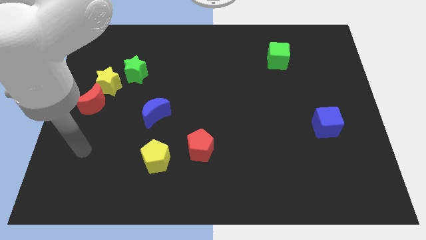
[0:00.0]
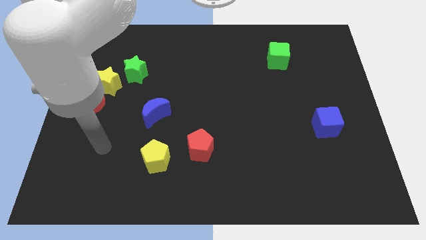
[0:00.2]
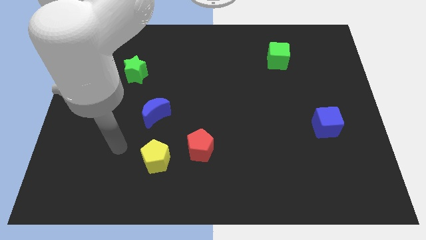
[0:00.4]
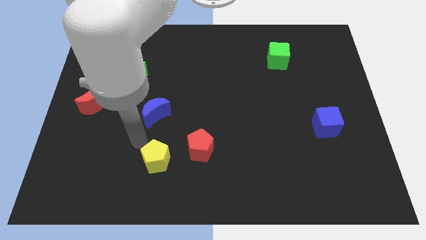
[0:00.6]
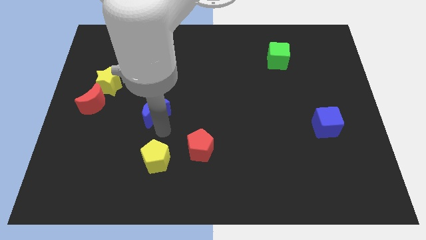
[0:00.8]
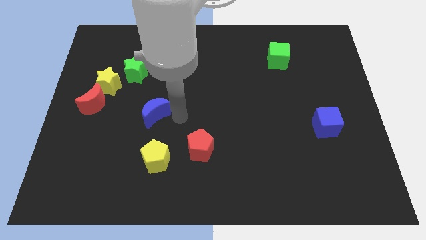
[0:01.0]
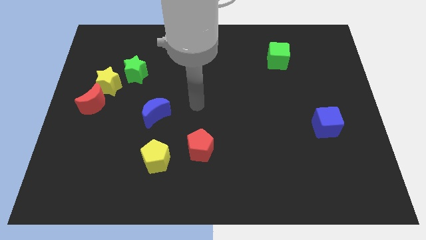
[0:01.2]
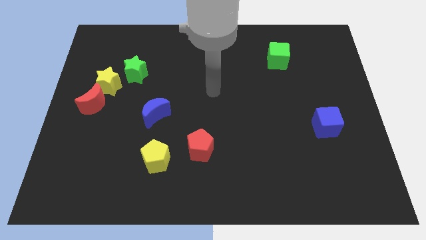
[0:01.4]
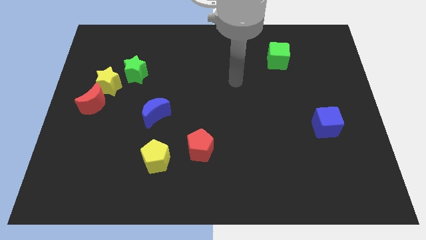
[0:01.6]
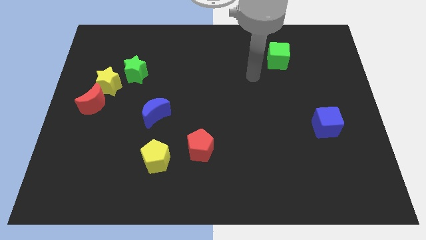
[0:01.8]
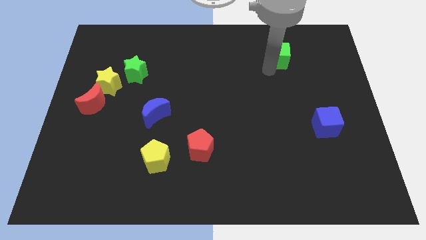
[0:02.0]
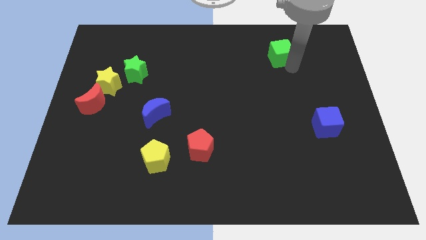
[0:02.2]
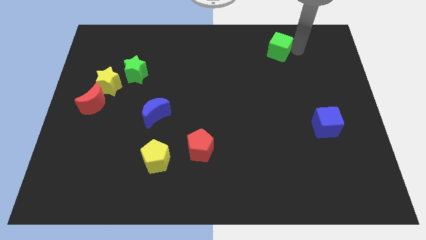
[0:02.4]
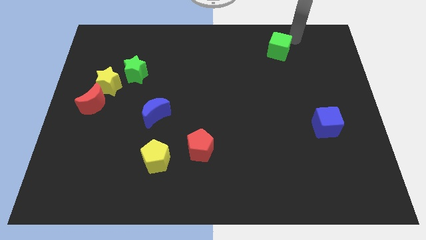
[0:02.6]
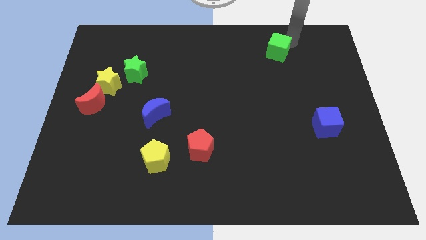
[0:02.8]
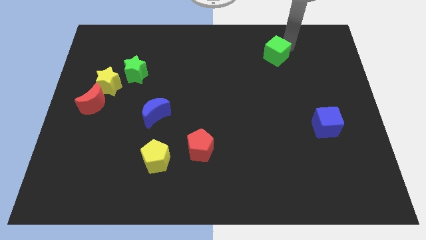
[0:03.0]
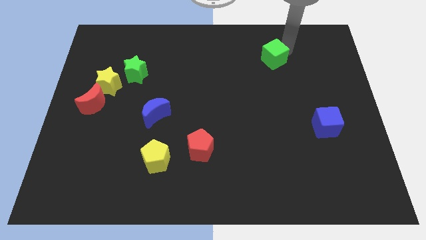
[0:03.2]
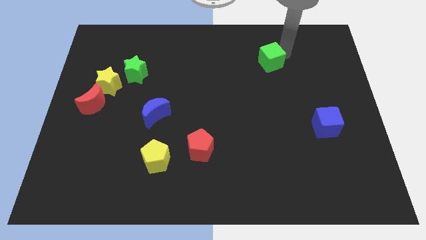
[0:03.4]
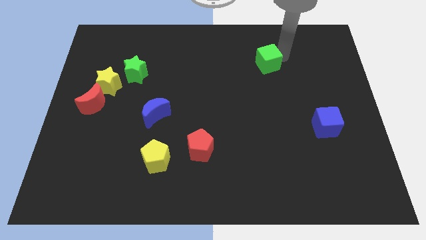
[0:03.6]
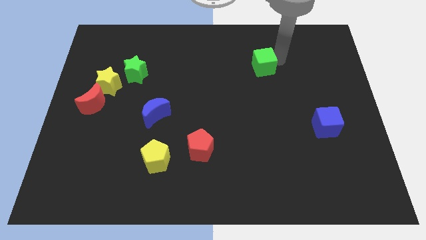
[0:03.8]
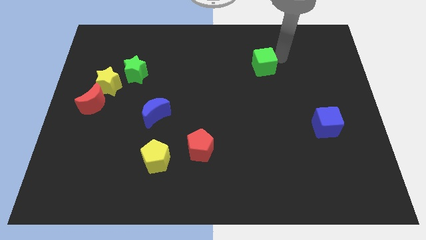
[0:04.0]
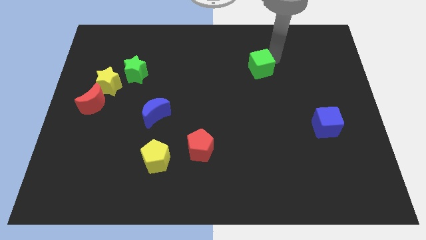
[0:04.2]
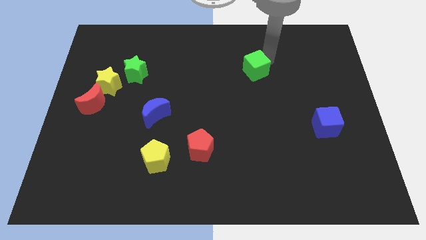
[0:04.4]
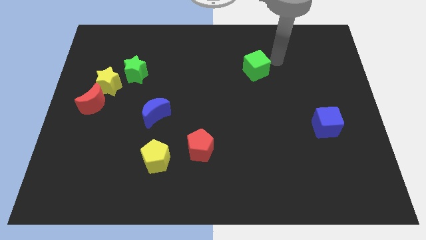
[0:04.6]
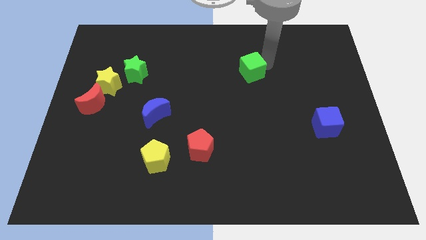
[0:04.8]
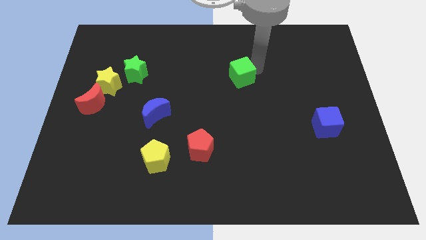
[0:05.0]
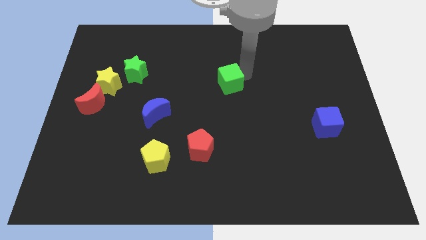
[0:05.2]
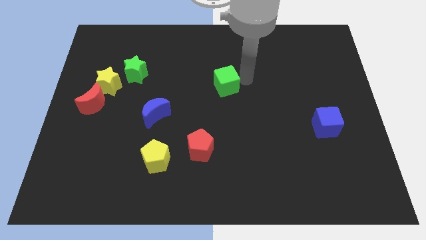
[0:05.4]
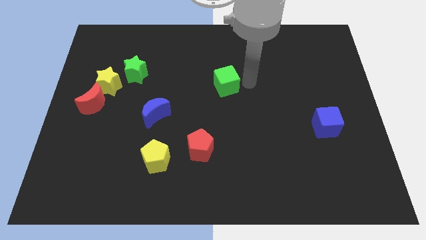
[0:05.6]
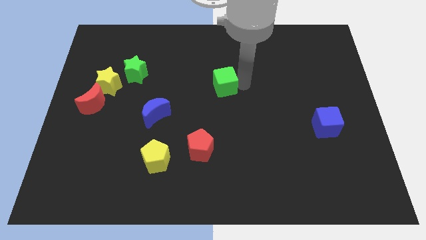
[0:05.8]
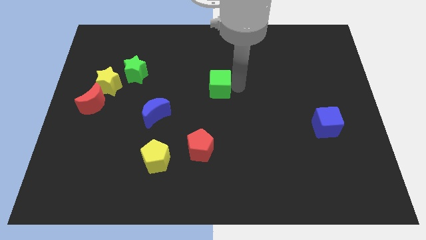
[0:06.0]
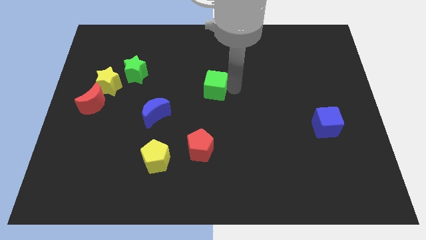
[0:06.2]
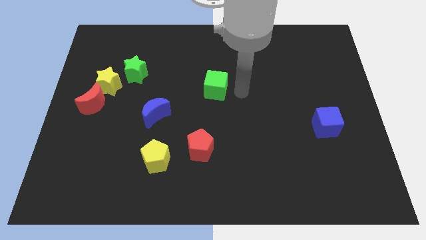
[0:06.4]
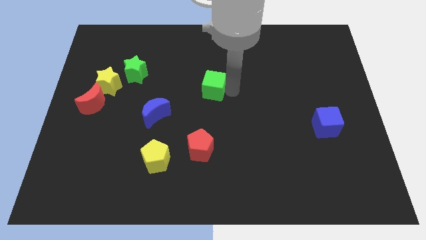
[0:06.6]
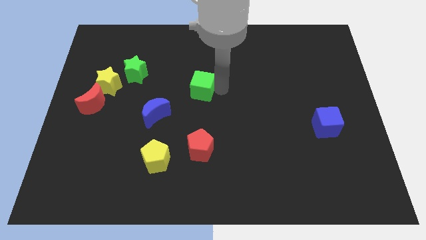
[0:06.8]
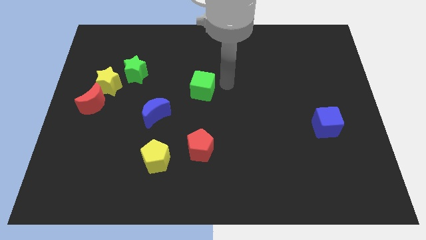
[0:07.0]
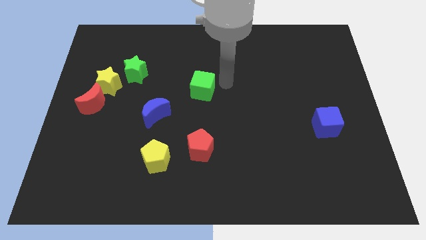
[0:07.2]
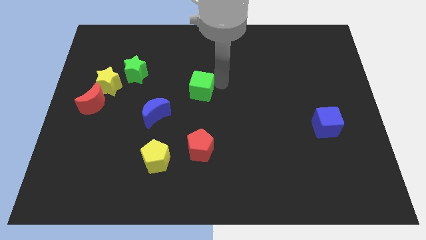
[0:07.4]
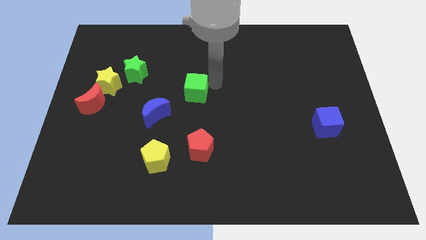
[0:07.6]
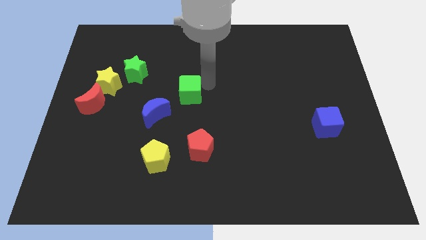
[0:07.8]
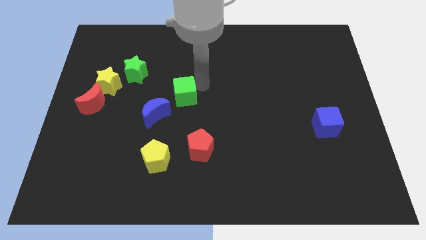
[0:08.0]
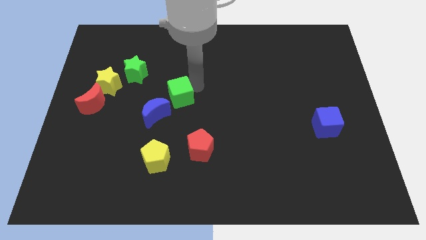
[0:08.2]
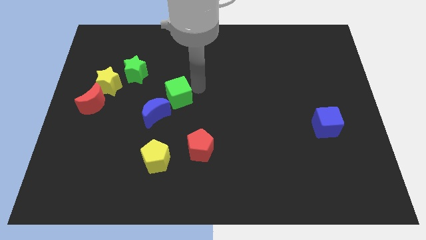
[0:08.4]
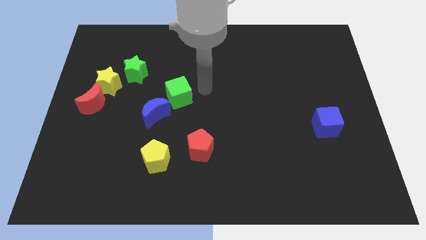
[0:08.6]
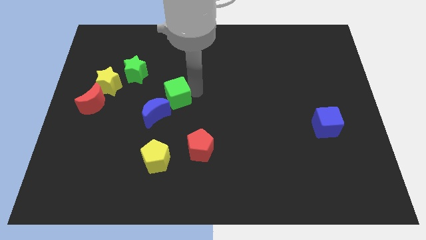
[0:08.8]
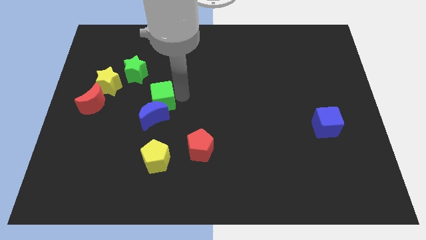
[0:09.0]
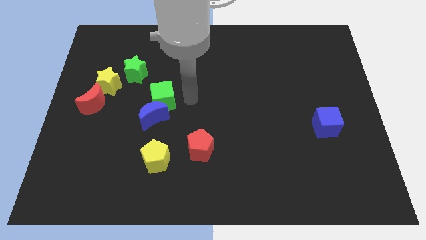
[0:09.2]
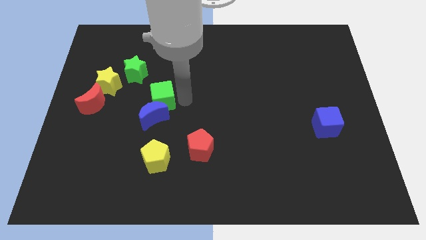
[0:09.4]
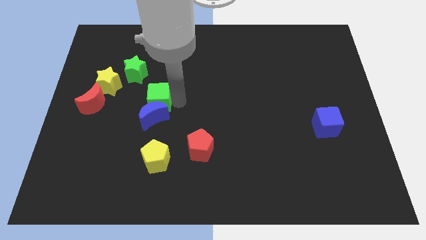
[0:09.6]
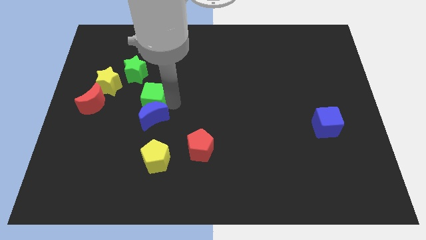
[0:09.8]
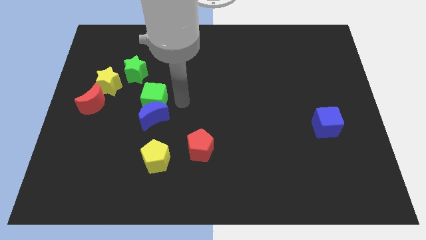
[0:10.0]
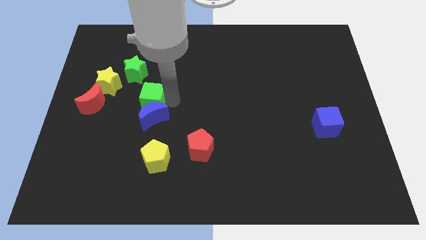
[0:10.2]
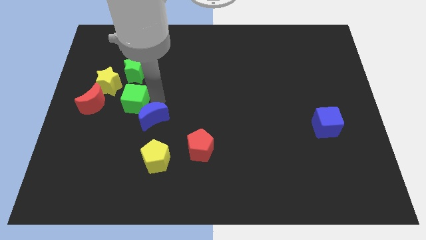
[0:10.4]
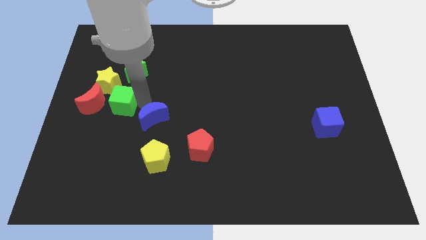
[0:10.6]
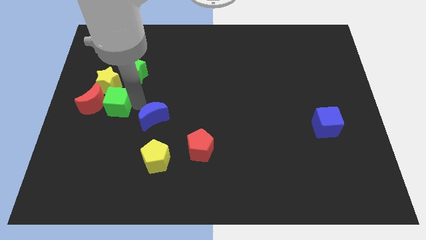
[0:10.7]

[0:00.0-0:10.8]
put the green cube next to the red moon

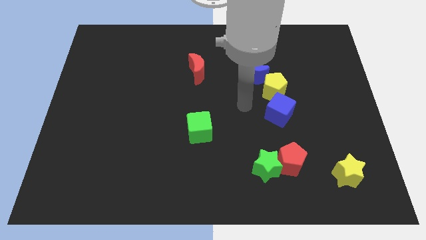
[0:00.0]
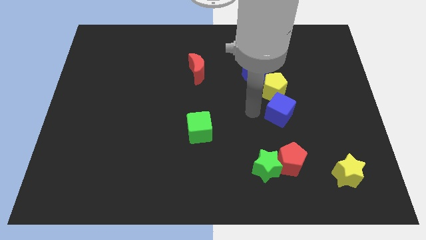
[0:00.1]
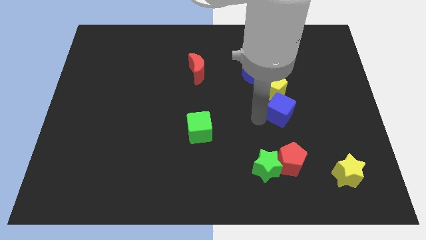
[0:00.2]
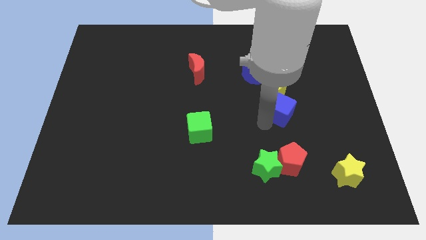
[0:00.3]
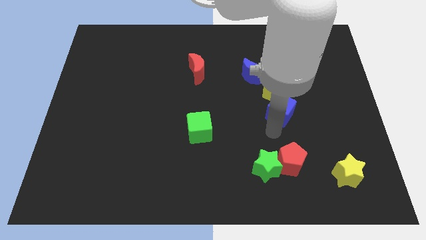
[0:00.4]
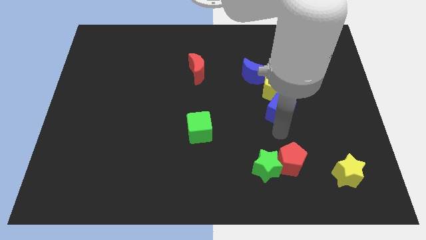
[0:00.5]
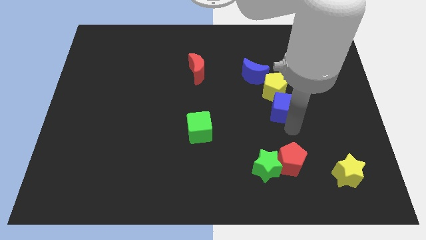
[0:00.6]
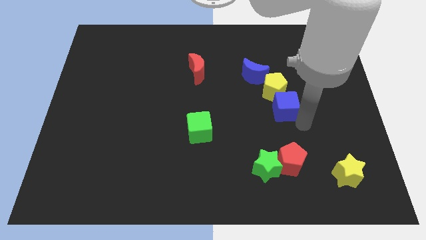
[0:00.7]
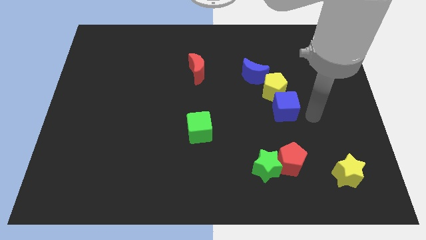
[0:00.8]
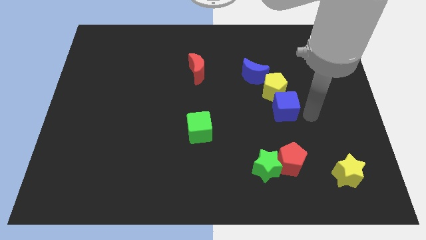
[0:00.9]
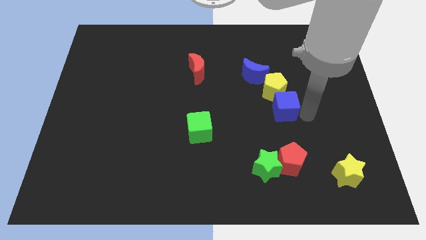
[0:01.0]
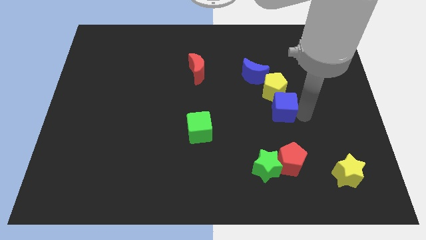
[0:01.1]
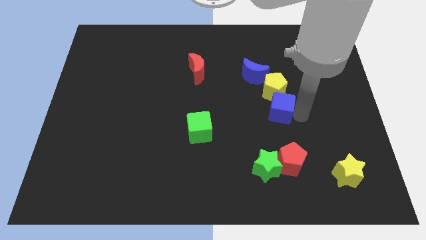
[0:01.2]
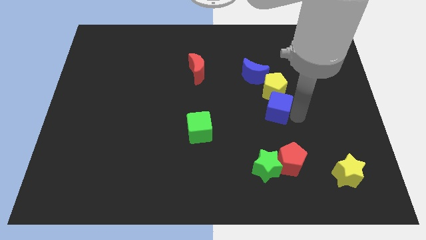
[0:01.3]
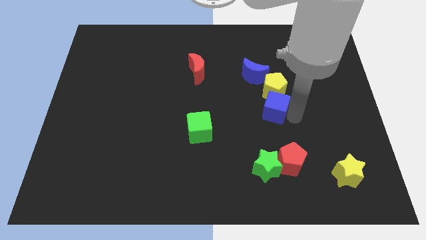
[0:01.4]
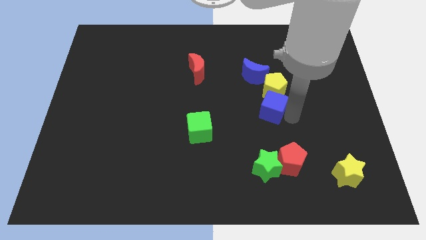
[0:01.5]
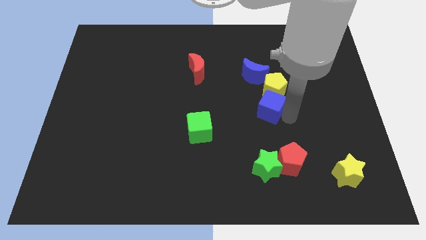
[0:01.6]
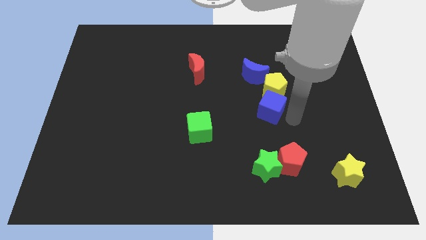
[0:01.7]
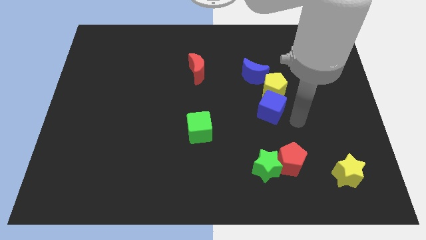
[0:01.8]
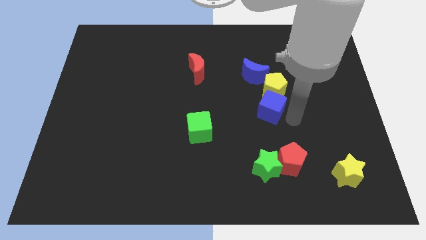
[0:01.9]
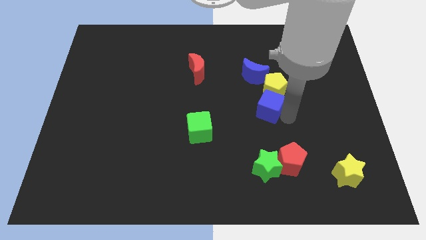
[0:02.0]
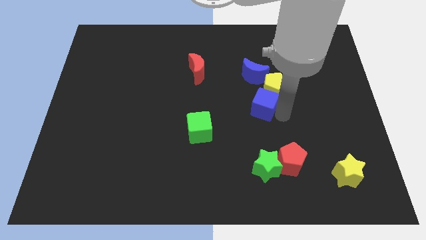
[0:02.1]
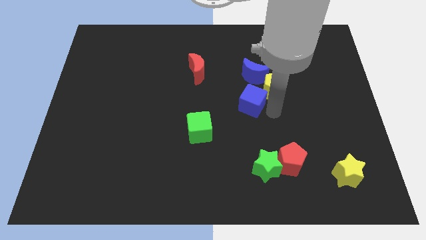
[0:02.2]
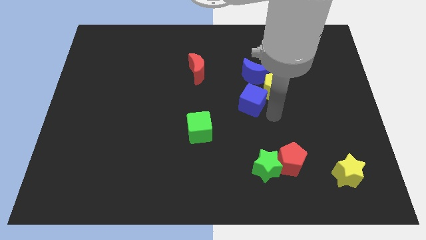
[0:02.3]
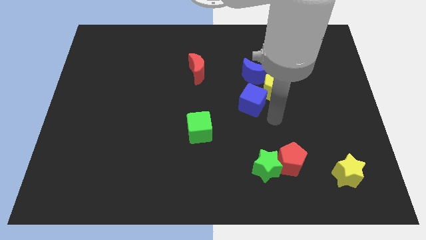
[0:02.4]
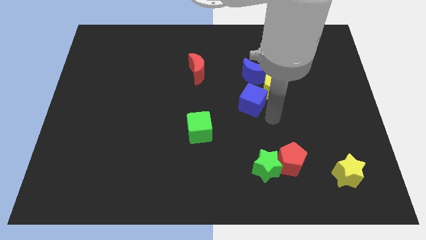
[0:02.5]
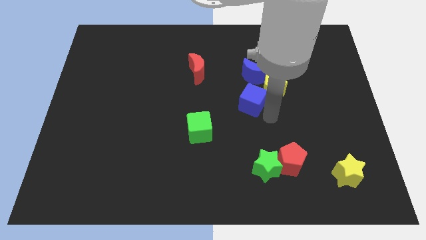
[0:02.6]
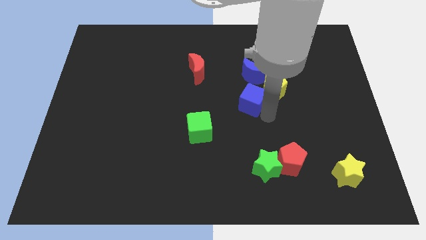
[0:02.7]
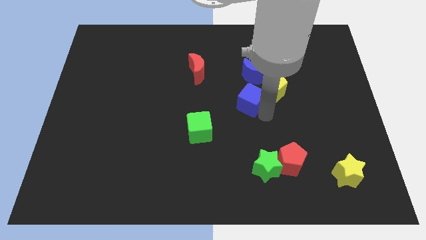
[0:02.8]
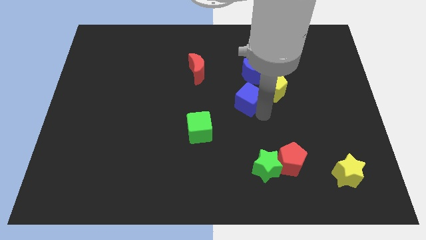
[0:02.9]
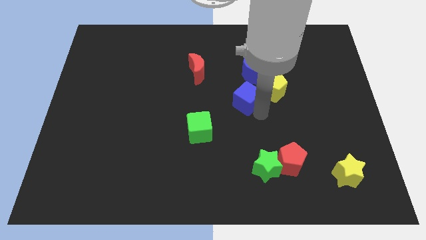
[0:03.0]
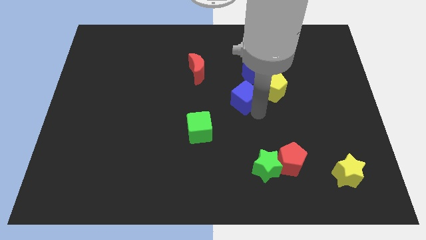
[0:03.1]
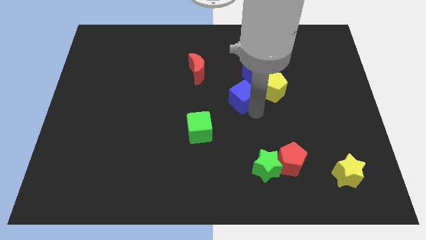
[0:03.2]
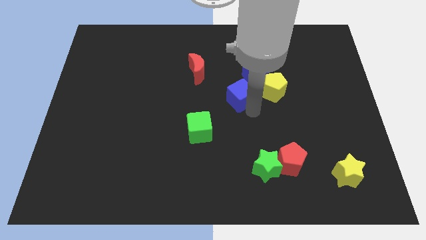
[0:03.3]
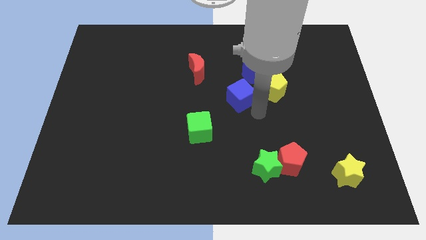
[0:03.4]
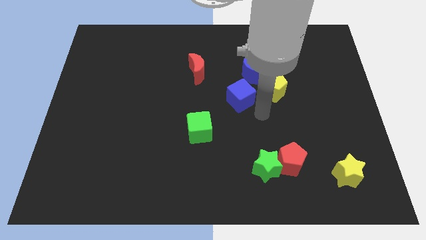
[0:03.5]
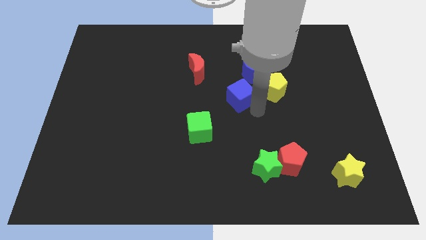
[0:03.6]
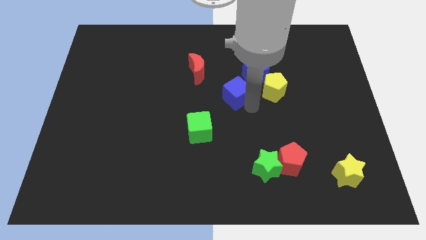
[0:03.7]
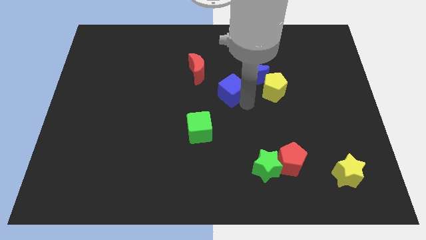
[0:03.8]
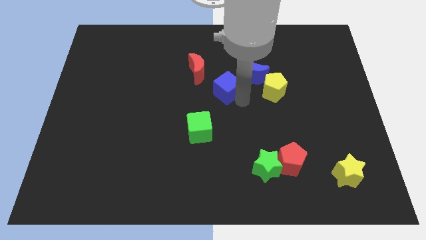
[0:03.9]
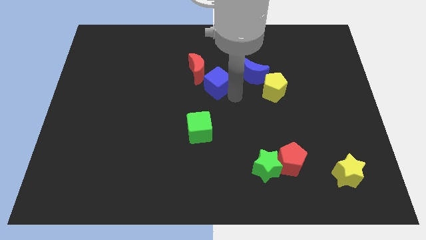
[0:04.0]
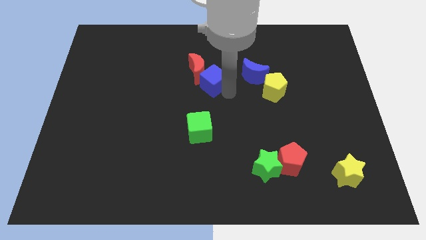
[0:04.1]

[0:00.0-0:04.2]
put the blue cube to the red moon
